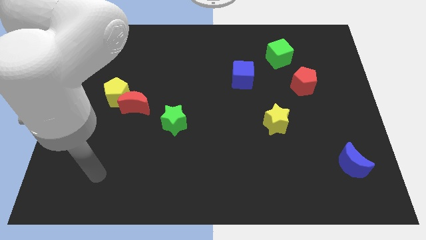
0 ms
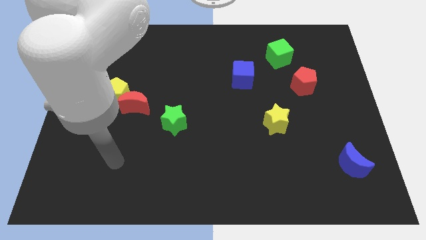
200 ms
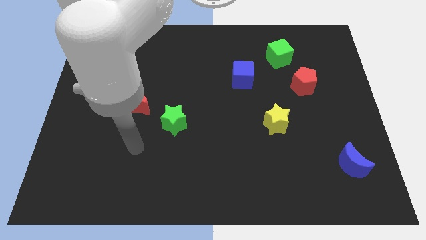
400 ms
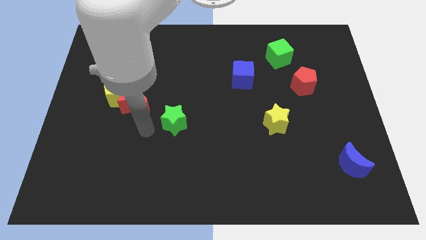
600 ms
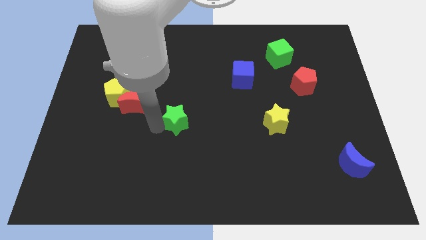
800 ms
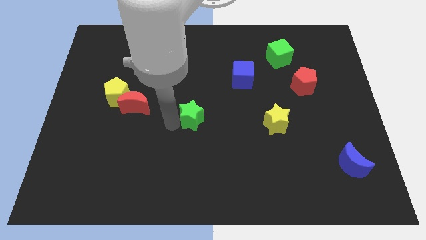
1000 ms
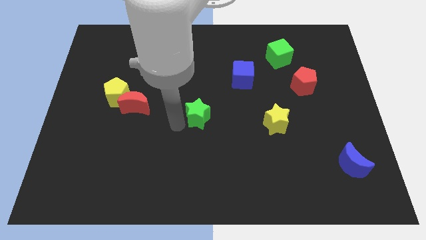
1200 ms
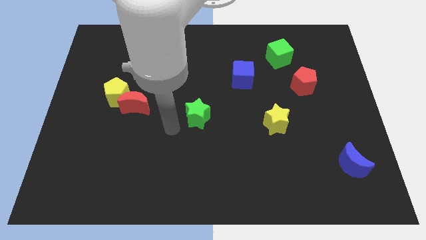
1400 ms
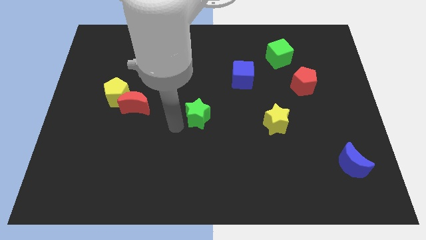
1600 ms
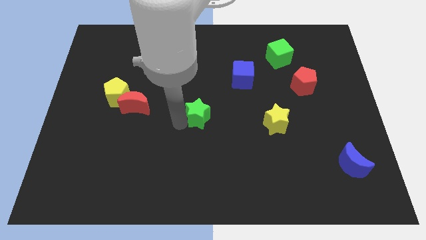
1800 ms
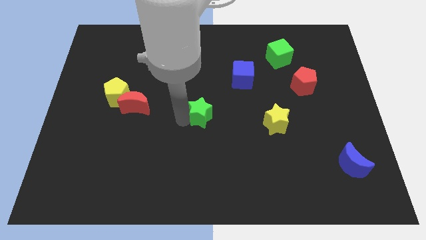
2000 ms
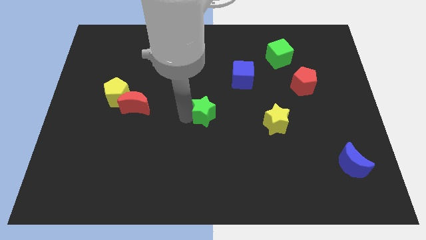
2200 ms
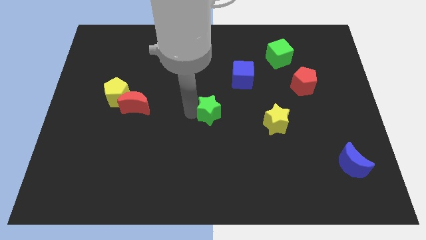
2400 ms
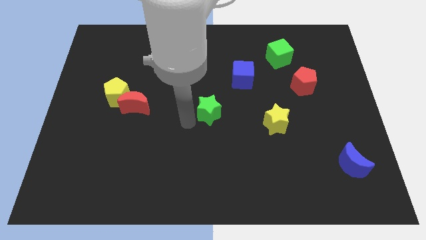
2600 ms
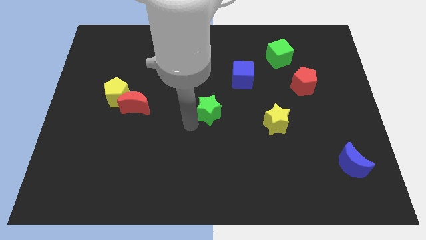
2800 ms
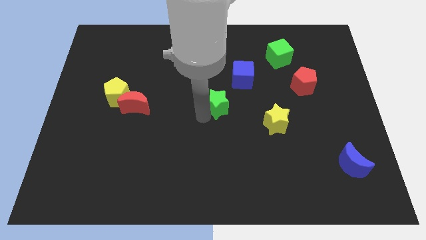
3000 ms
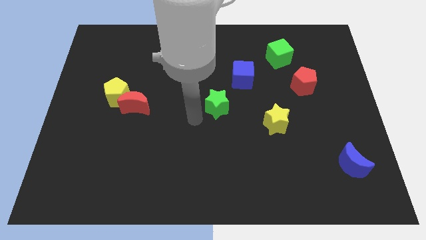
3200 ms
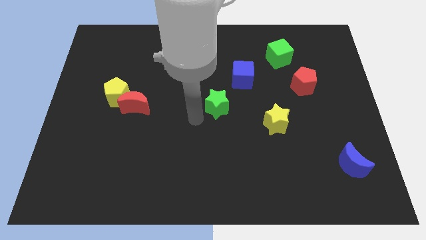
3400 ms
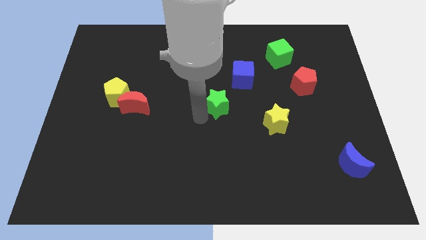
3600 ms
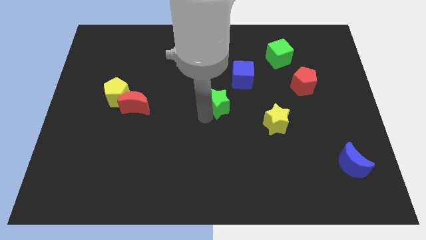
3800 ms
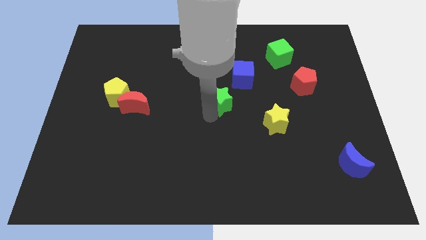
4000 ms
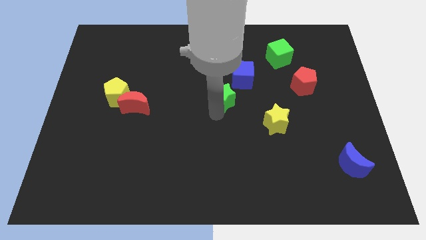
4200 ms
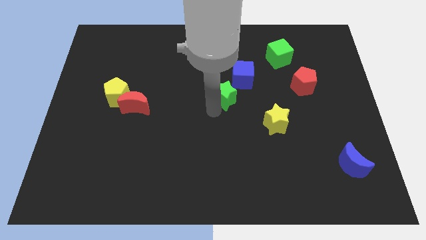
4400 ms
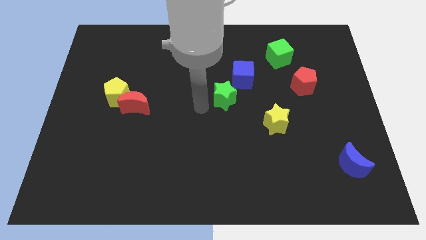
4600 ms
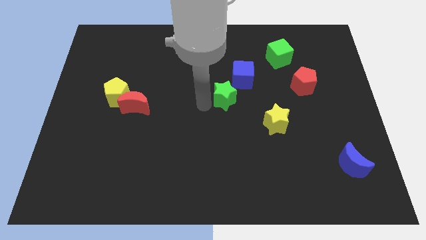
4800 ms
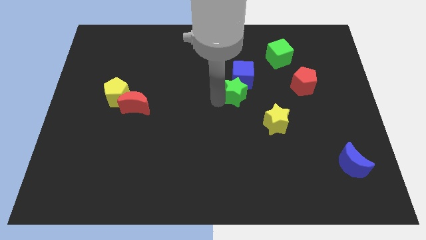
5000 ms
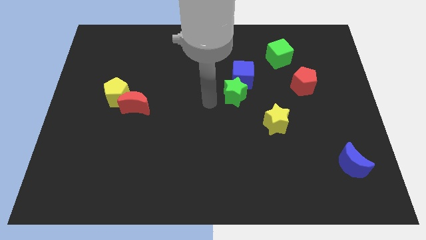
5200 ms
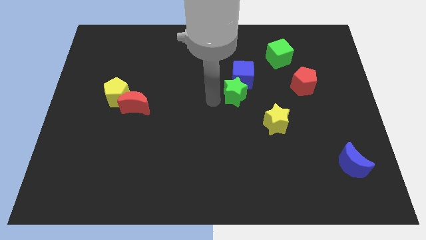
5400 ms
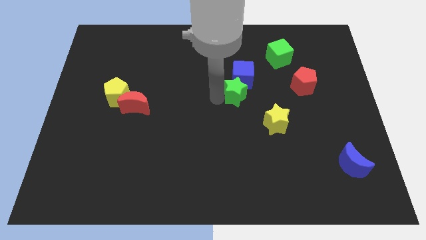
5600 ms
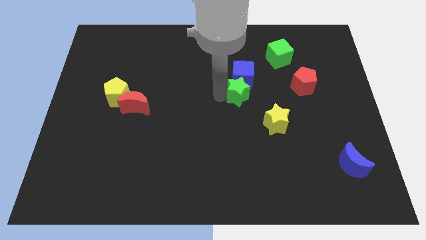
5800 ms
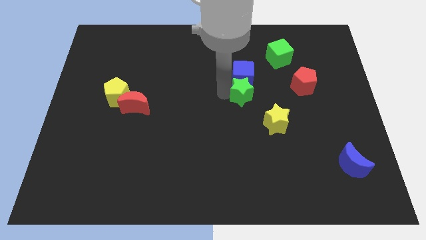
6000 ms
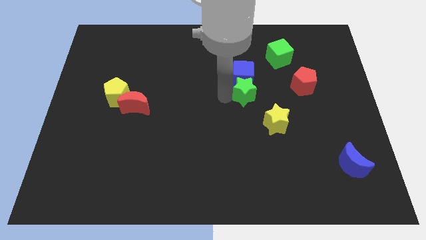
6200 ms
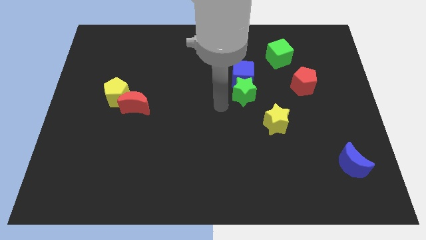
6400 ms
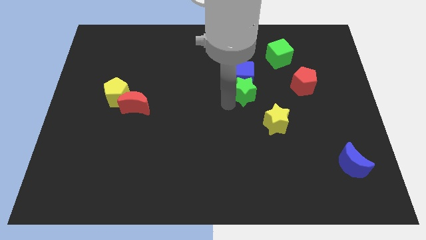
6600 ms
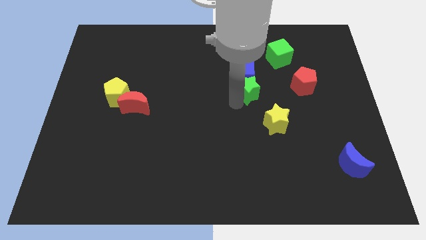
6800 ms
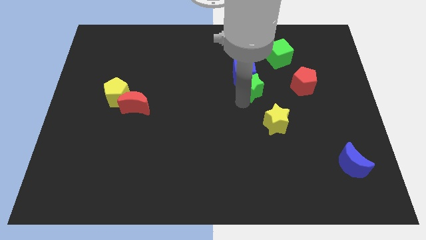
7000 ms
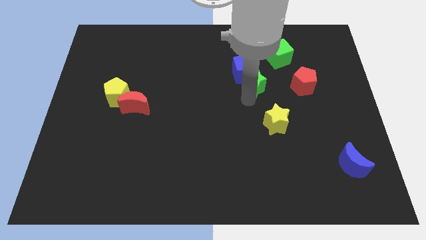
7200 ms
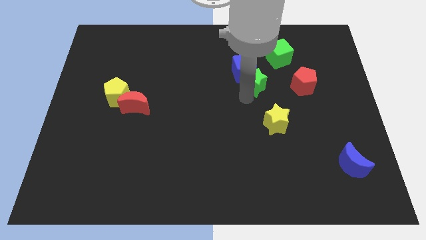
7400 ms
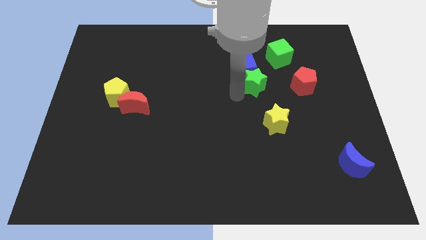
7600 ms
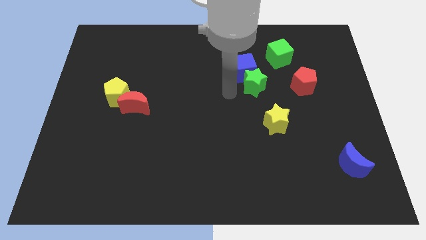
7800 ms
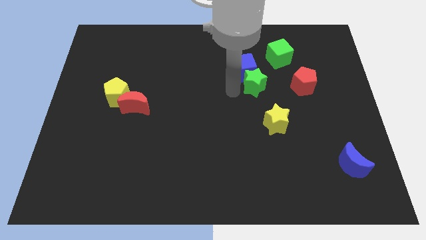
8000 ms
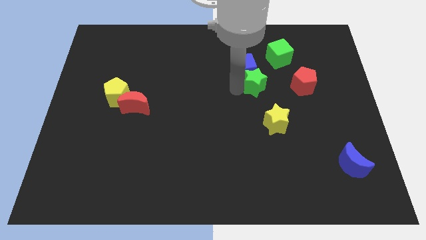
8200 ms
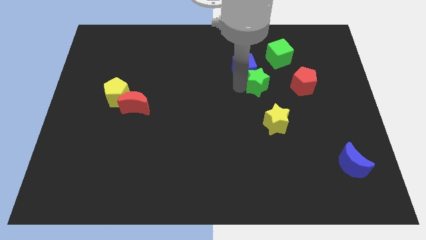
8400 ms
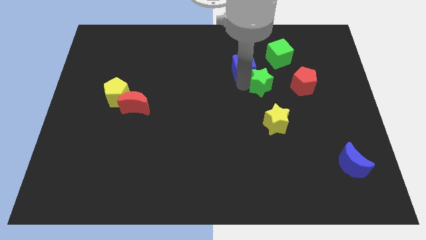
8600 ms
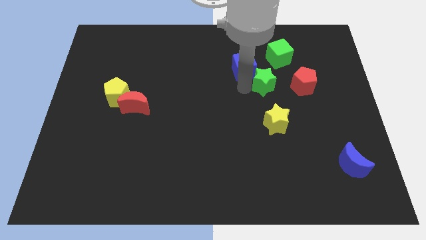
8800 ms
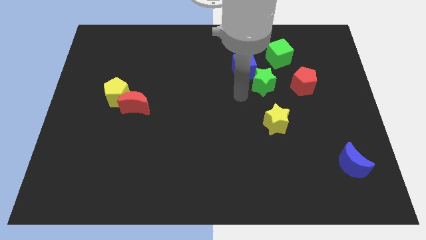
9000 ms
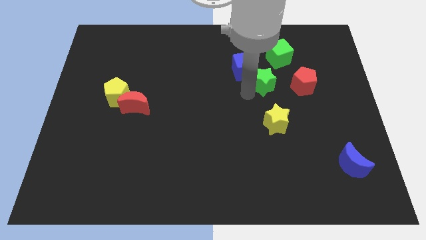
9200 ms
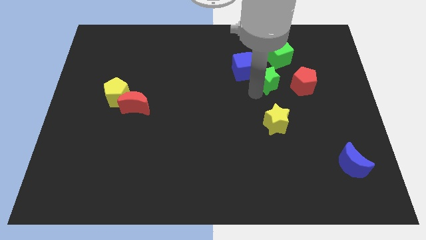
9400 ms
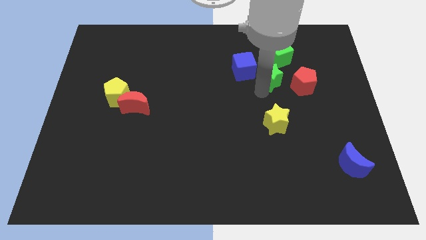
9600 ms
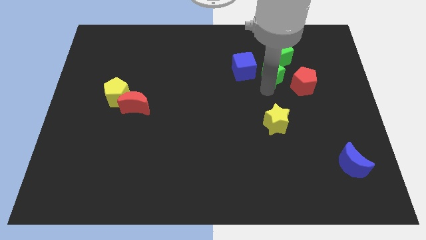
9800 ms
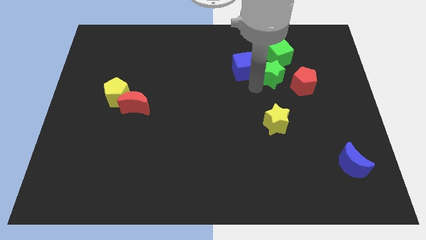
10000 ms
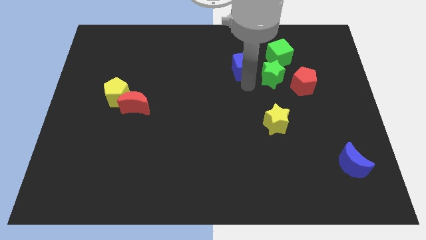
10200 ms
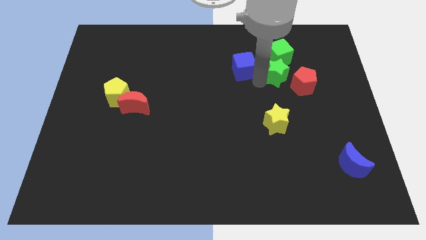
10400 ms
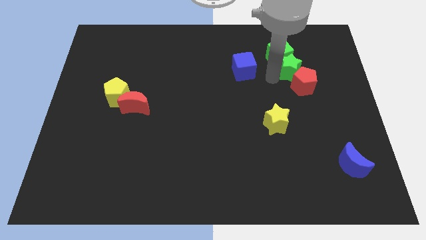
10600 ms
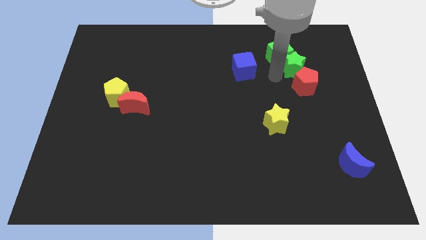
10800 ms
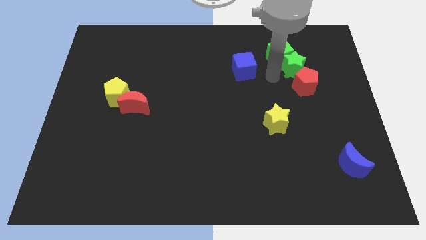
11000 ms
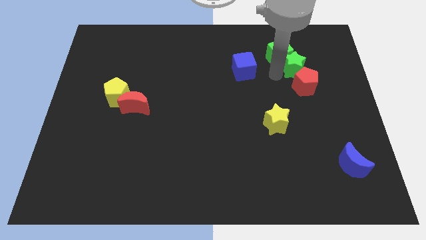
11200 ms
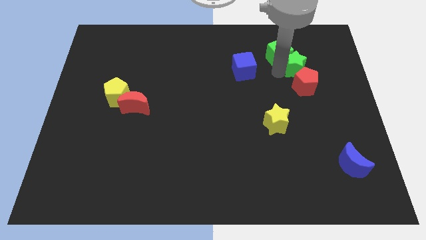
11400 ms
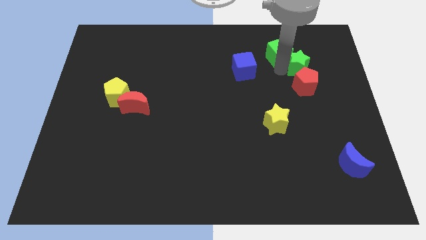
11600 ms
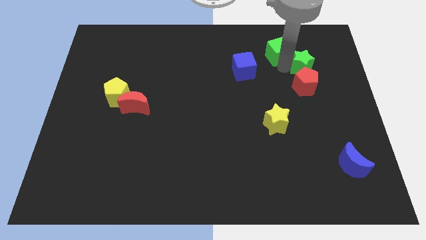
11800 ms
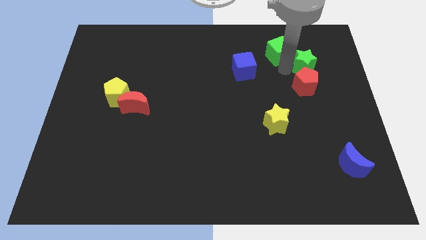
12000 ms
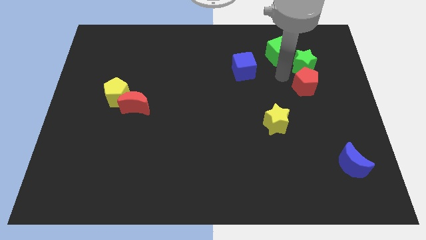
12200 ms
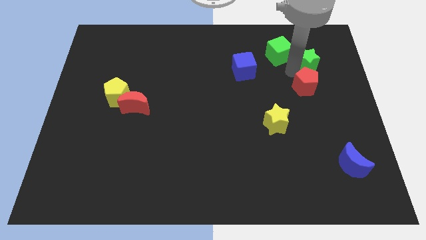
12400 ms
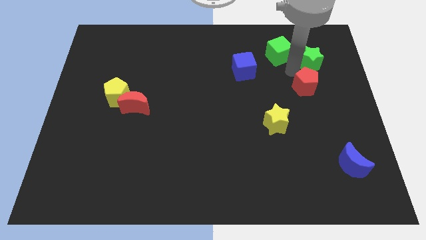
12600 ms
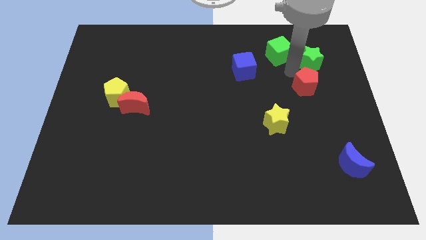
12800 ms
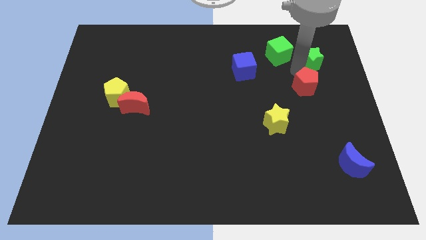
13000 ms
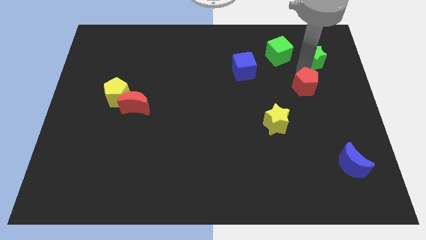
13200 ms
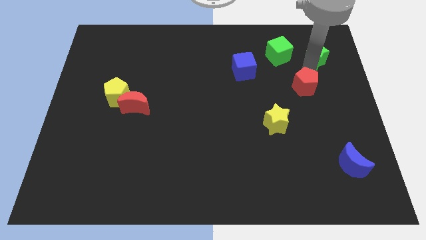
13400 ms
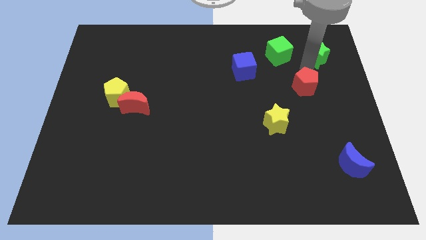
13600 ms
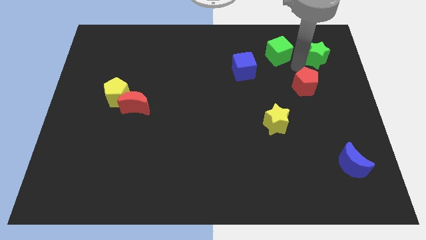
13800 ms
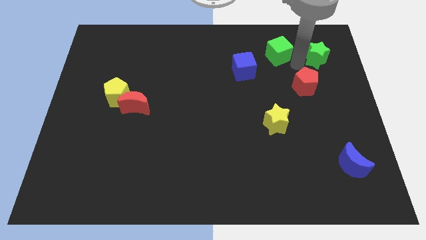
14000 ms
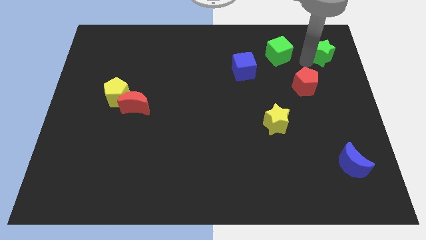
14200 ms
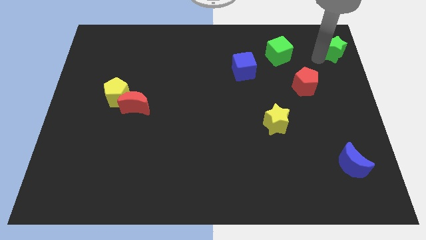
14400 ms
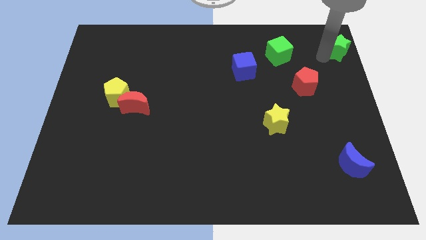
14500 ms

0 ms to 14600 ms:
slide the green star to the top right corner
